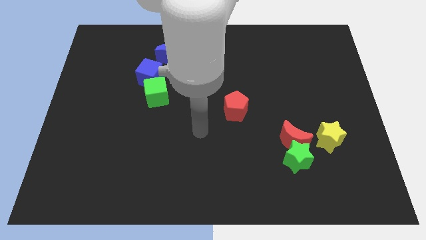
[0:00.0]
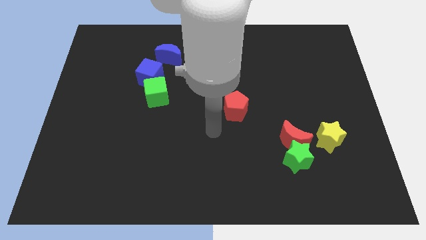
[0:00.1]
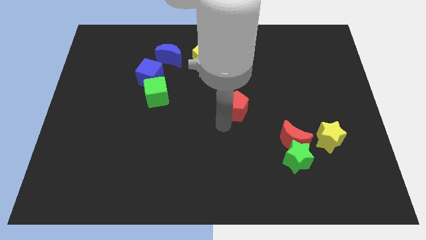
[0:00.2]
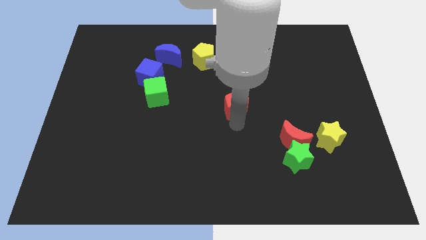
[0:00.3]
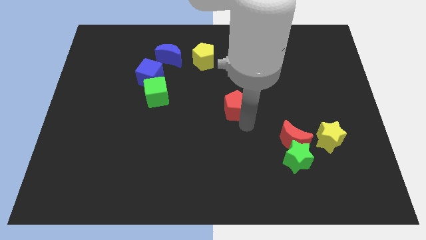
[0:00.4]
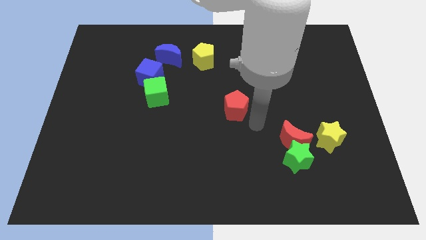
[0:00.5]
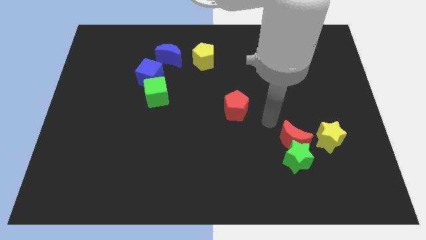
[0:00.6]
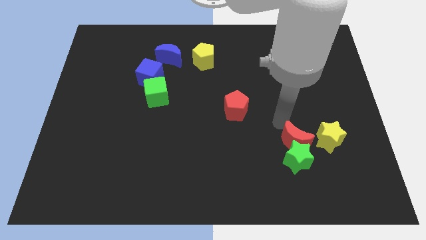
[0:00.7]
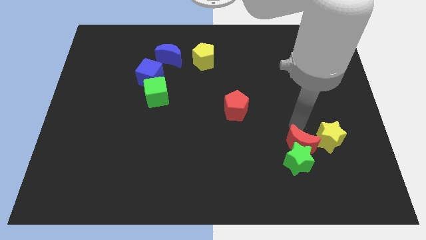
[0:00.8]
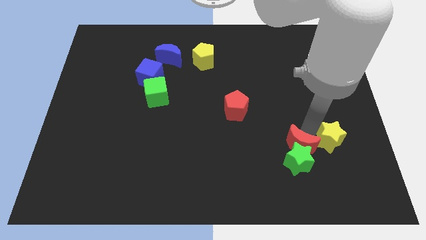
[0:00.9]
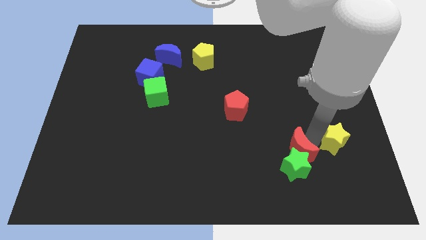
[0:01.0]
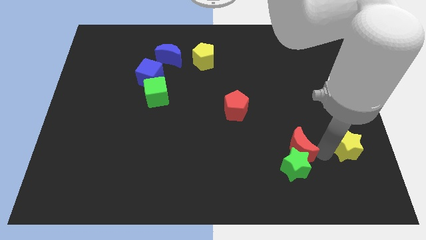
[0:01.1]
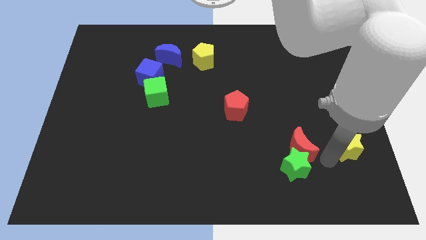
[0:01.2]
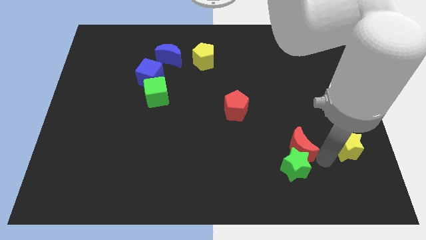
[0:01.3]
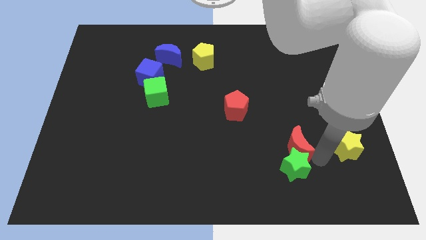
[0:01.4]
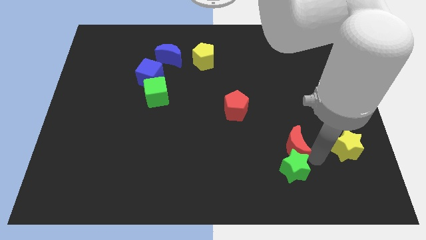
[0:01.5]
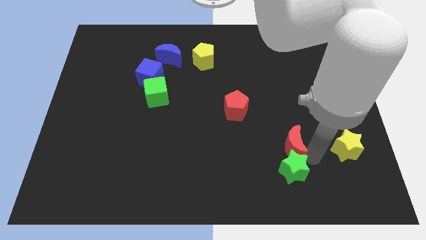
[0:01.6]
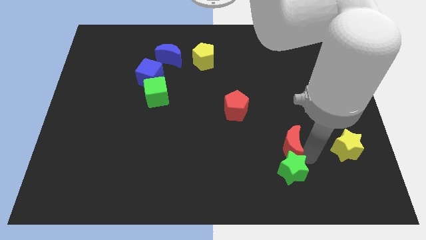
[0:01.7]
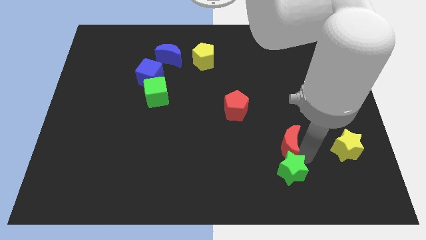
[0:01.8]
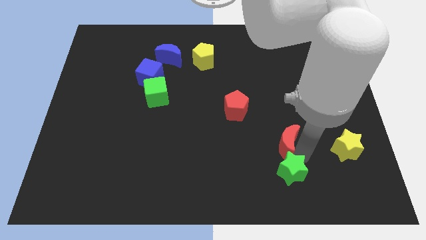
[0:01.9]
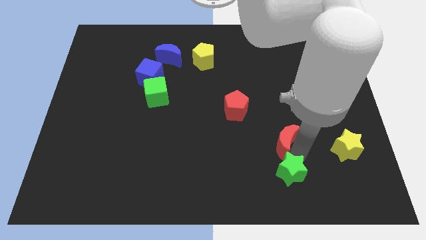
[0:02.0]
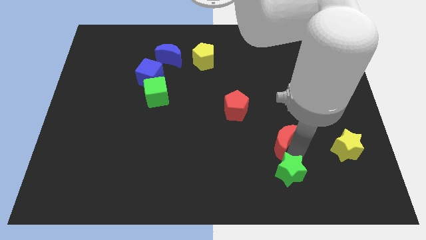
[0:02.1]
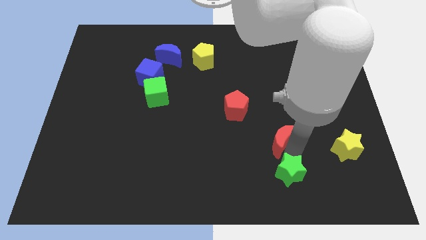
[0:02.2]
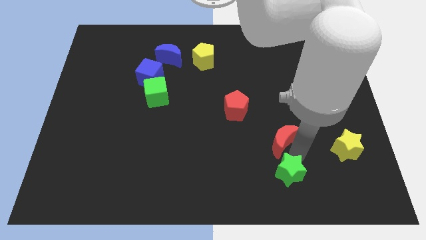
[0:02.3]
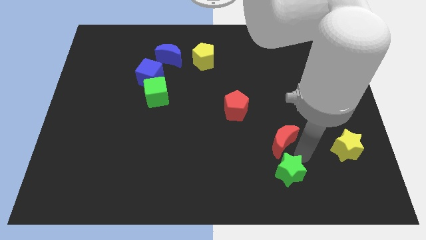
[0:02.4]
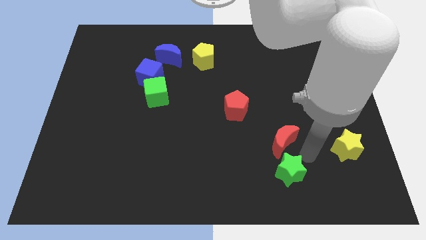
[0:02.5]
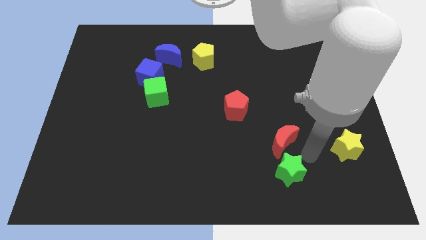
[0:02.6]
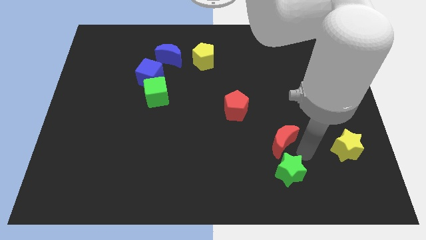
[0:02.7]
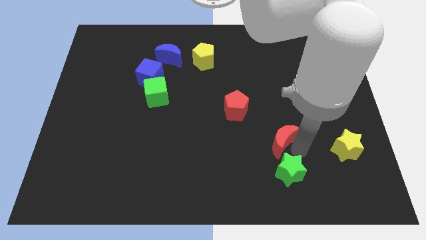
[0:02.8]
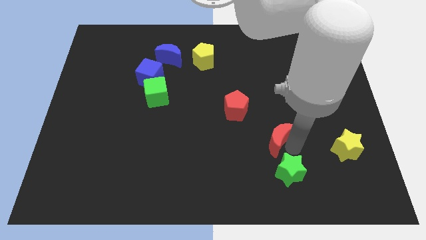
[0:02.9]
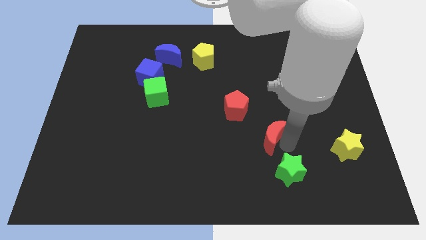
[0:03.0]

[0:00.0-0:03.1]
pull the red moon apart from the green star and yellow star

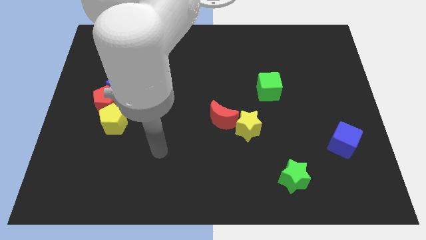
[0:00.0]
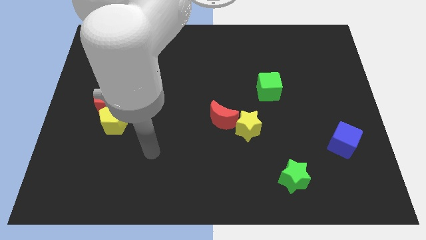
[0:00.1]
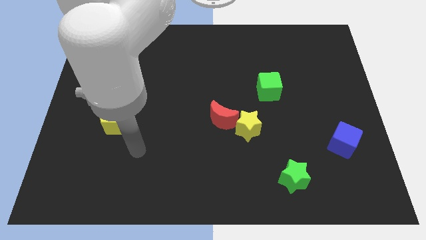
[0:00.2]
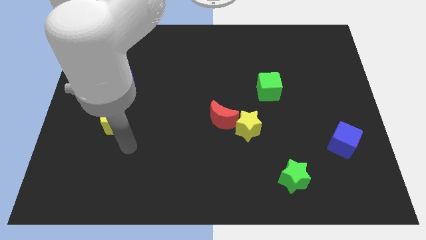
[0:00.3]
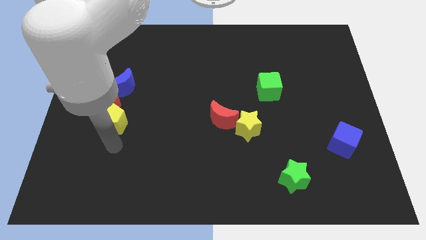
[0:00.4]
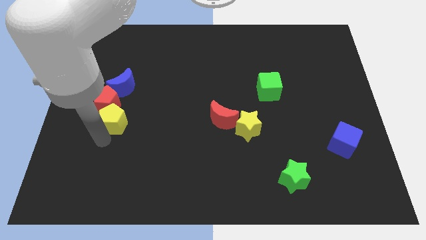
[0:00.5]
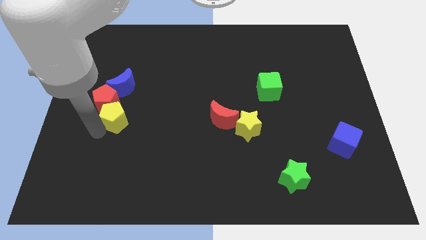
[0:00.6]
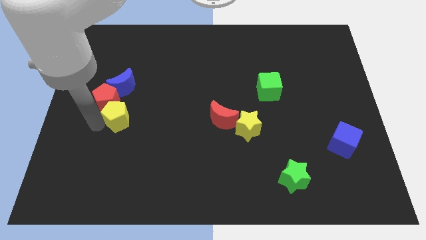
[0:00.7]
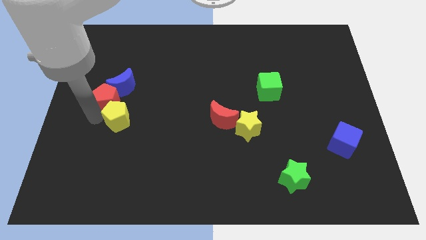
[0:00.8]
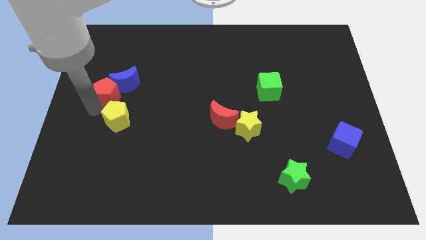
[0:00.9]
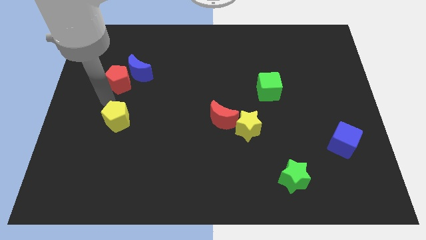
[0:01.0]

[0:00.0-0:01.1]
move the yellow pentagon away from the red pentagon

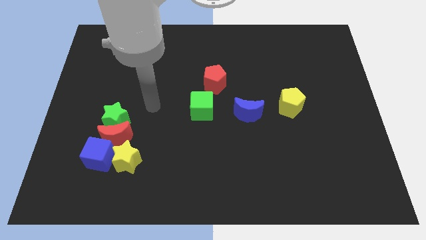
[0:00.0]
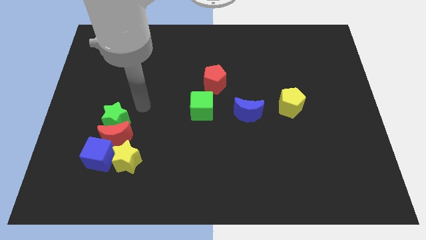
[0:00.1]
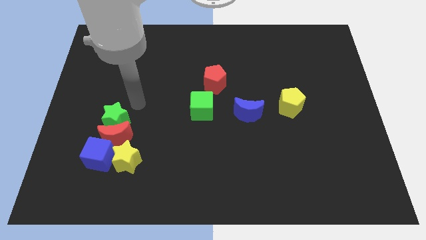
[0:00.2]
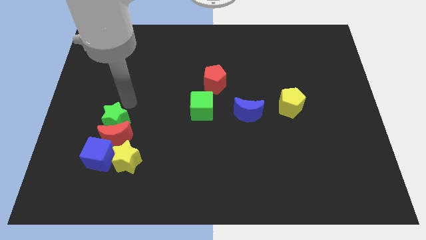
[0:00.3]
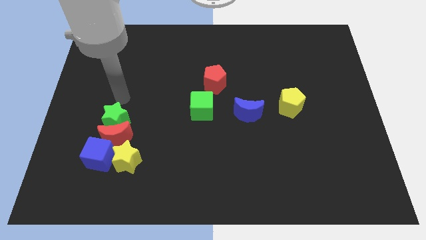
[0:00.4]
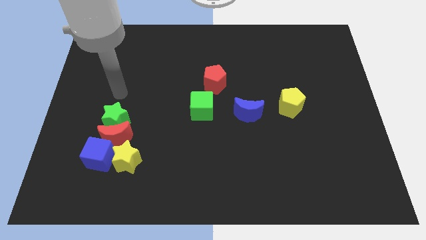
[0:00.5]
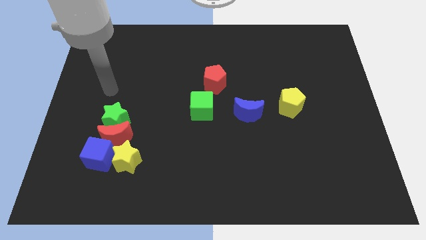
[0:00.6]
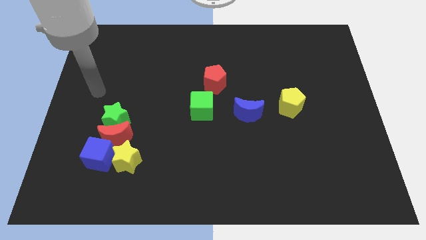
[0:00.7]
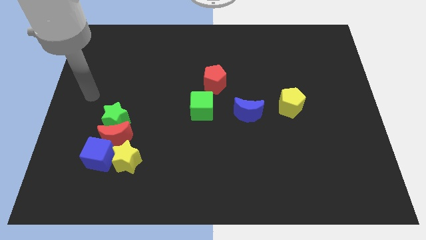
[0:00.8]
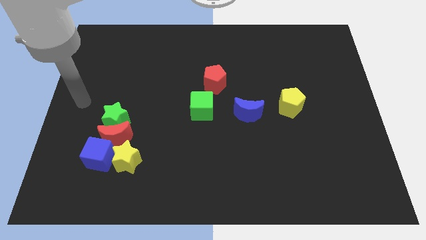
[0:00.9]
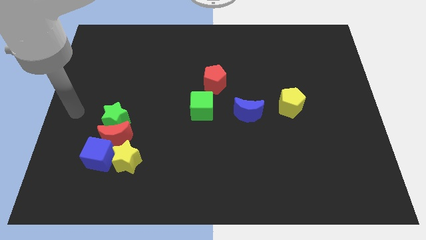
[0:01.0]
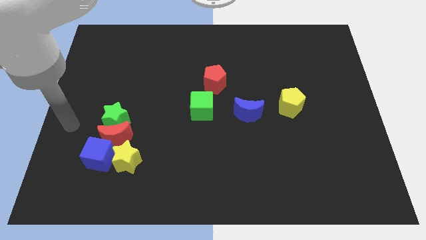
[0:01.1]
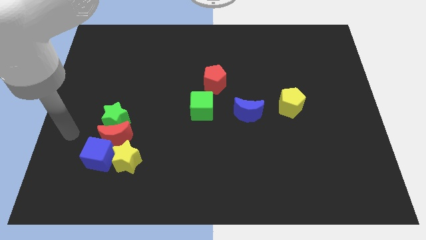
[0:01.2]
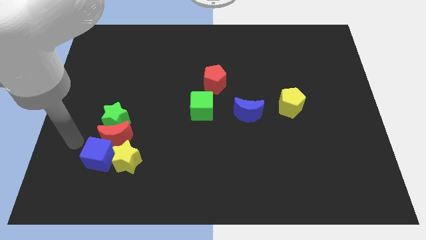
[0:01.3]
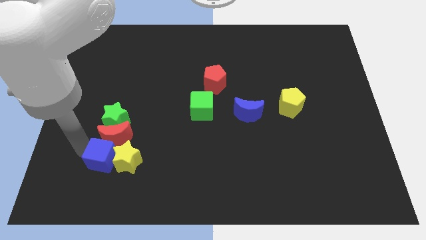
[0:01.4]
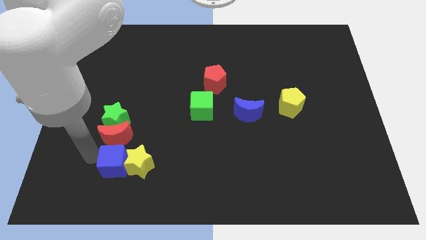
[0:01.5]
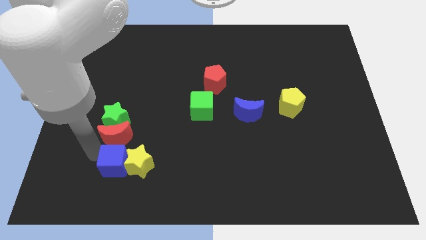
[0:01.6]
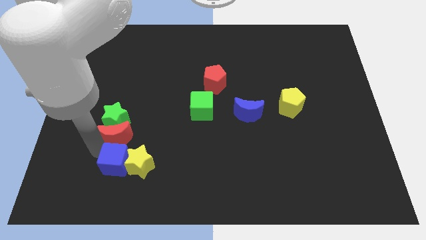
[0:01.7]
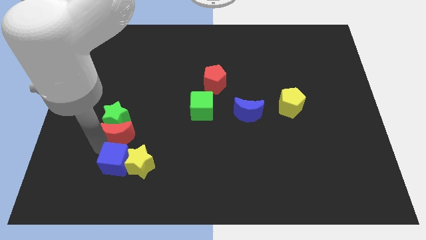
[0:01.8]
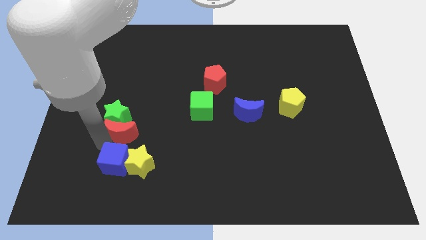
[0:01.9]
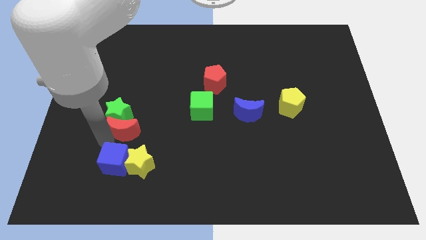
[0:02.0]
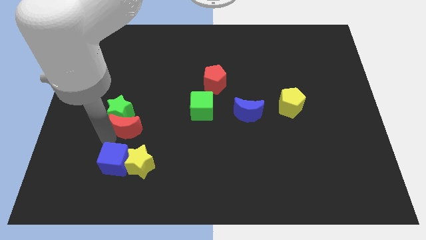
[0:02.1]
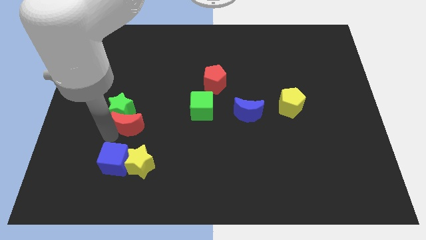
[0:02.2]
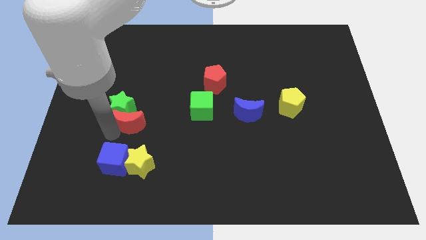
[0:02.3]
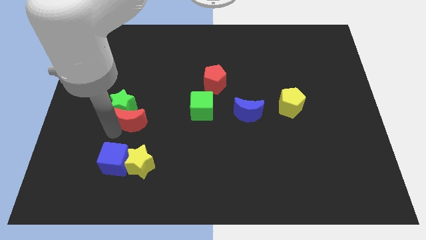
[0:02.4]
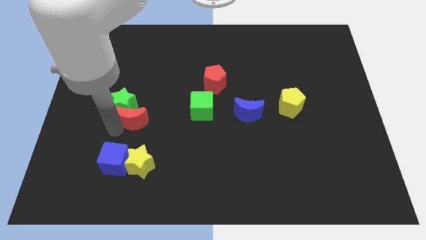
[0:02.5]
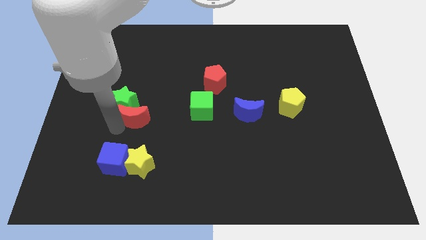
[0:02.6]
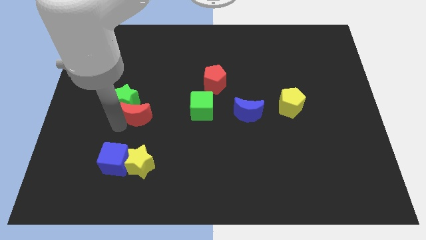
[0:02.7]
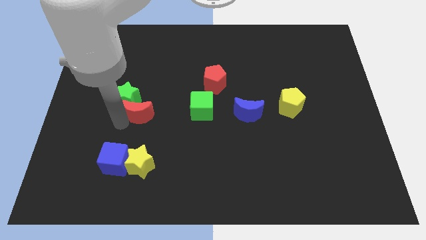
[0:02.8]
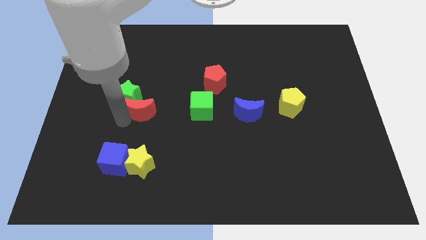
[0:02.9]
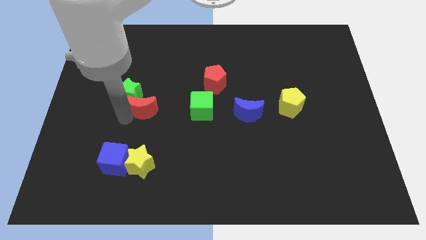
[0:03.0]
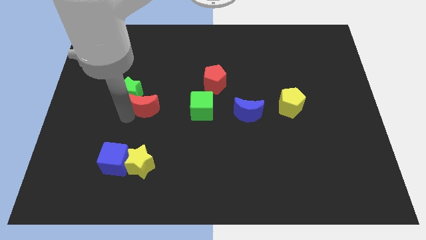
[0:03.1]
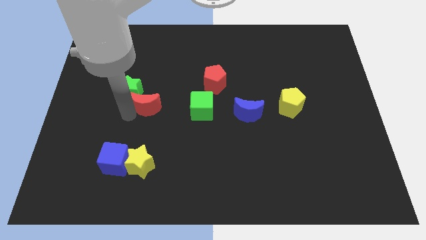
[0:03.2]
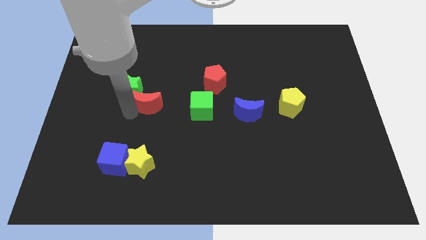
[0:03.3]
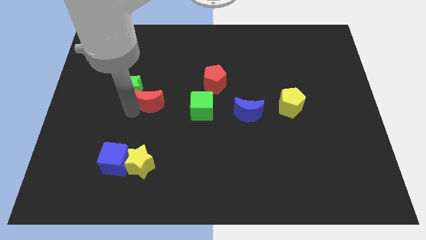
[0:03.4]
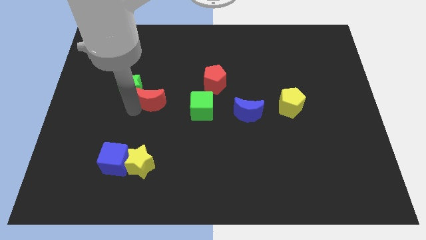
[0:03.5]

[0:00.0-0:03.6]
pull the red moon apart from the group

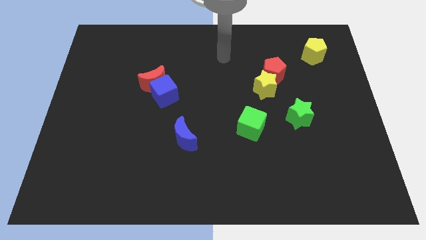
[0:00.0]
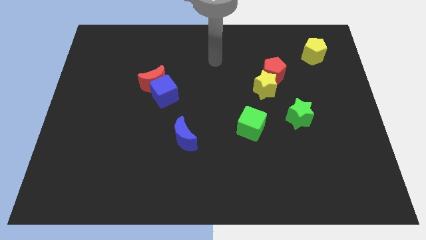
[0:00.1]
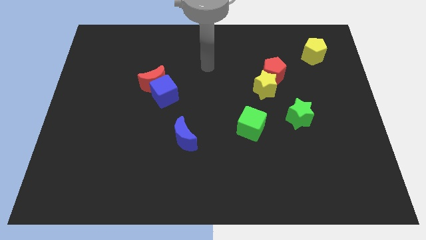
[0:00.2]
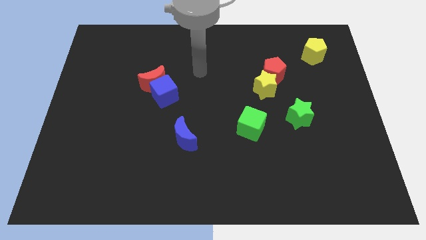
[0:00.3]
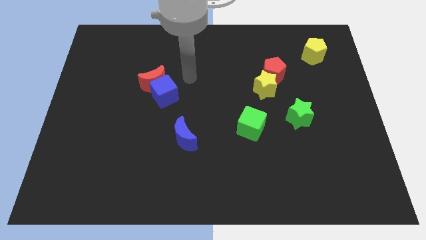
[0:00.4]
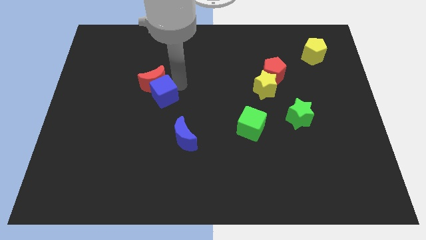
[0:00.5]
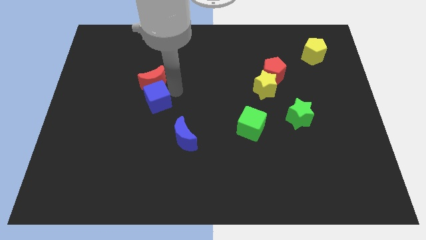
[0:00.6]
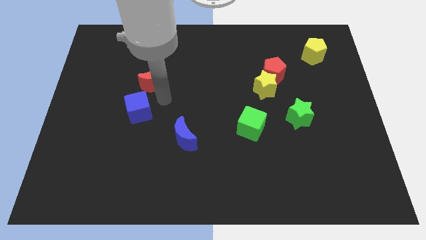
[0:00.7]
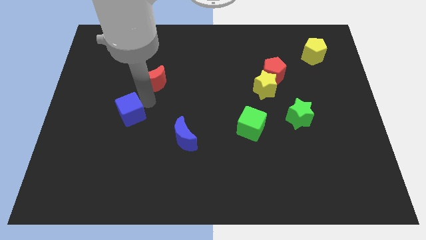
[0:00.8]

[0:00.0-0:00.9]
pull the red moon apart from the blue cube

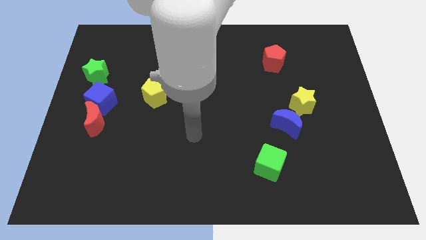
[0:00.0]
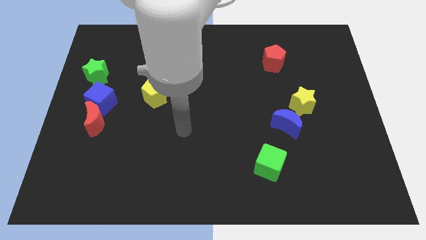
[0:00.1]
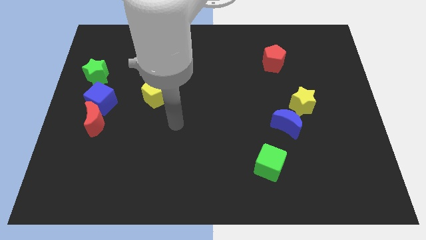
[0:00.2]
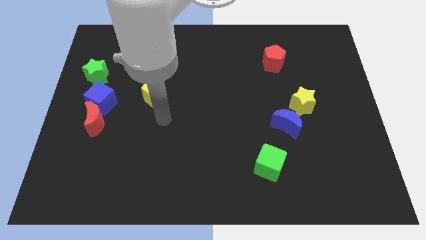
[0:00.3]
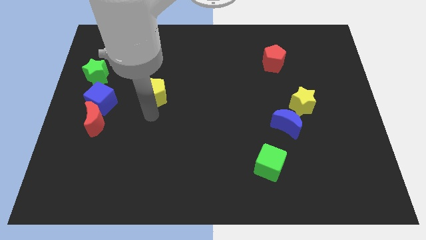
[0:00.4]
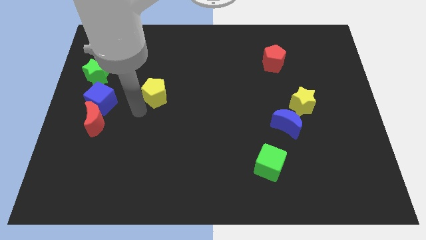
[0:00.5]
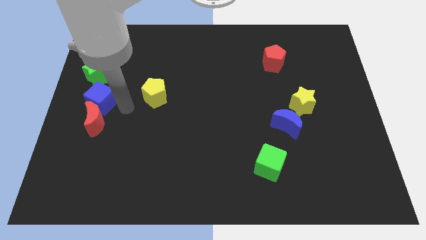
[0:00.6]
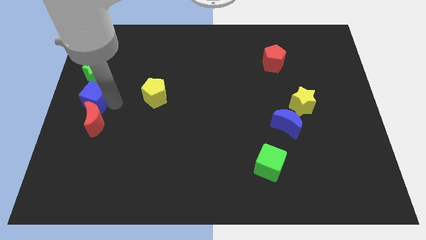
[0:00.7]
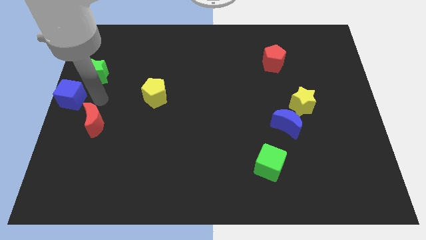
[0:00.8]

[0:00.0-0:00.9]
move the red moon away from the blue cube
